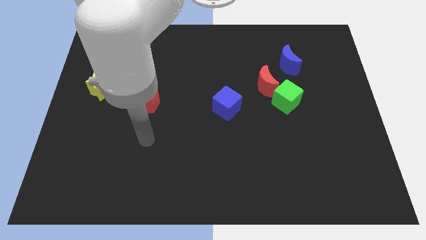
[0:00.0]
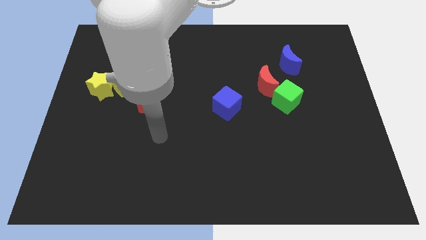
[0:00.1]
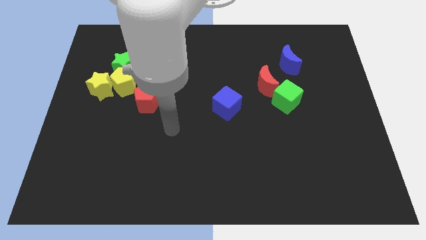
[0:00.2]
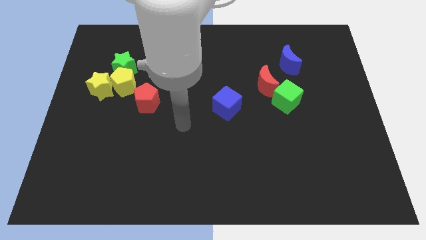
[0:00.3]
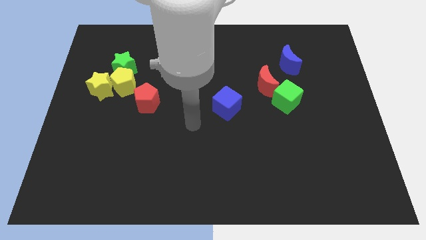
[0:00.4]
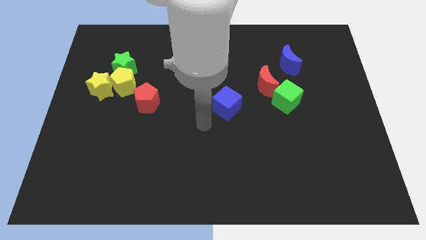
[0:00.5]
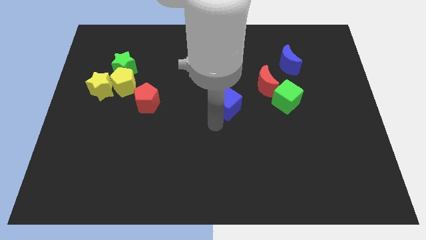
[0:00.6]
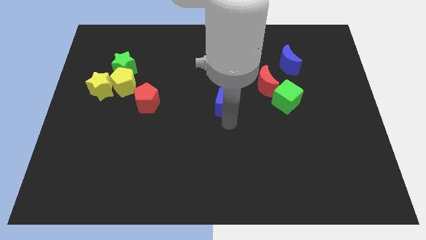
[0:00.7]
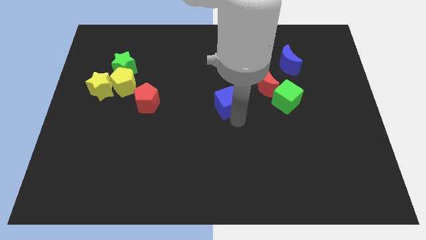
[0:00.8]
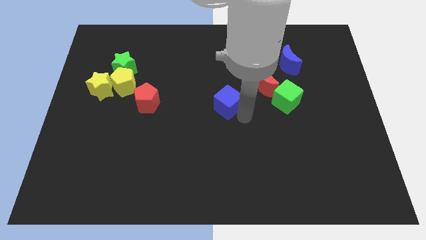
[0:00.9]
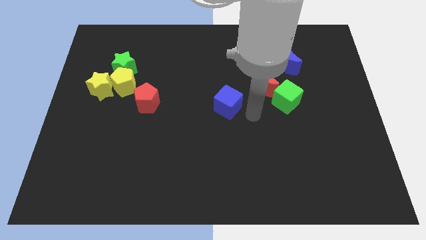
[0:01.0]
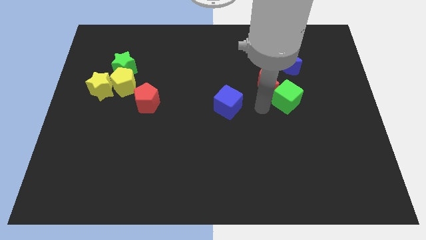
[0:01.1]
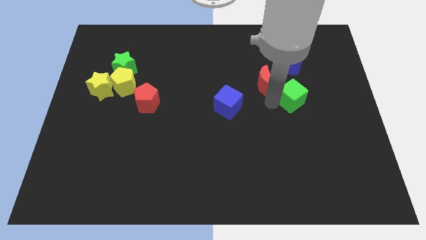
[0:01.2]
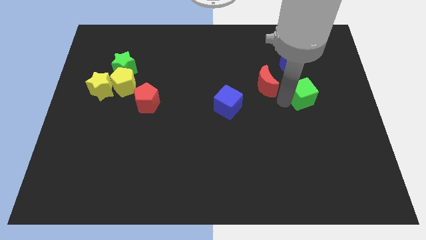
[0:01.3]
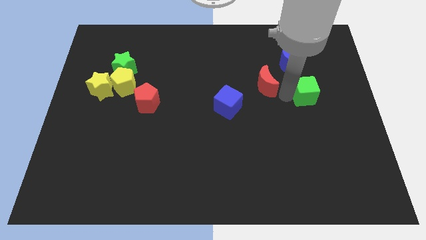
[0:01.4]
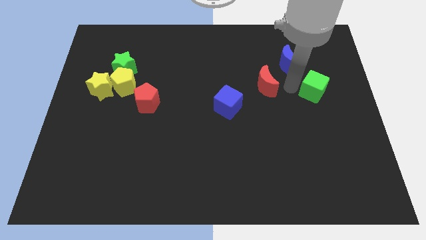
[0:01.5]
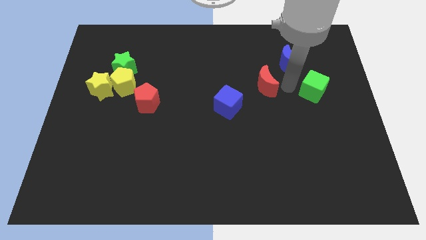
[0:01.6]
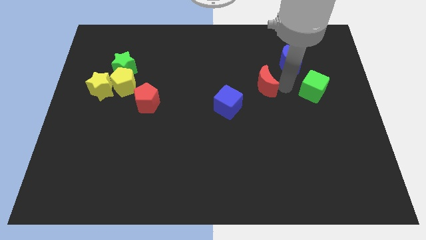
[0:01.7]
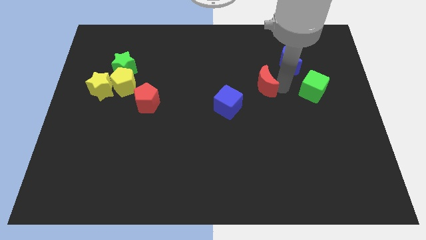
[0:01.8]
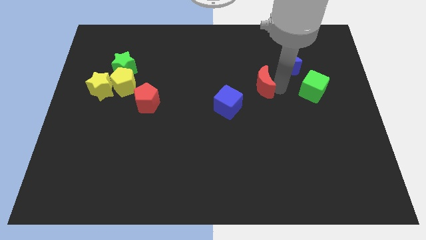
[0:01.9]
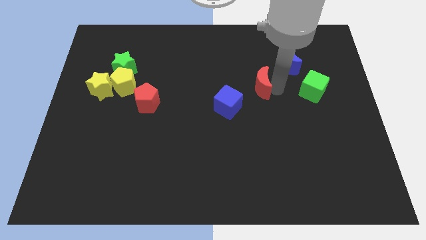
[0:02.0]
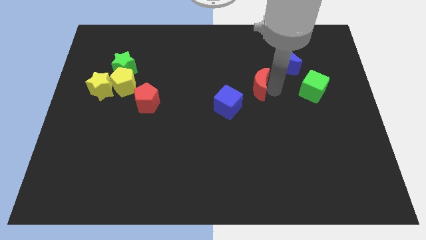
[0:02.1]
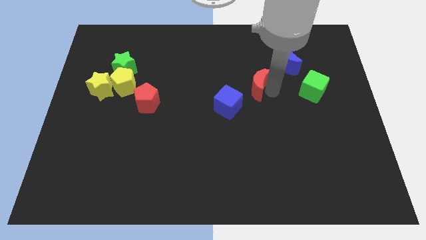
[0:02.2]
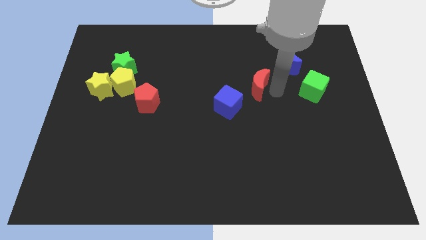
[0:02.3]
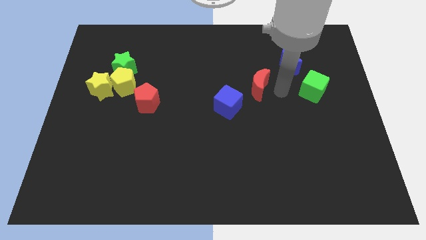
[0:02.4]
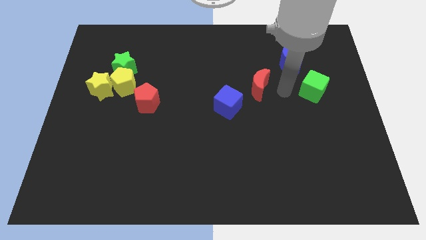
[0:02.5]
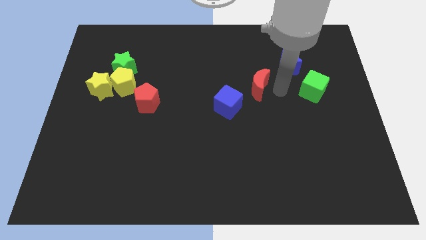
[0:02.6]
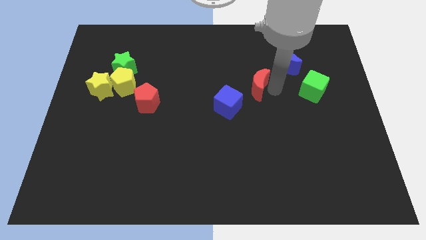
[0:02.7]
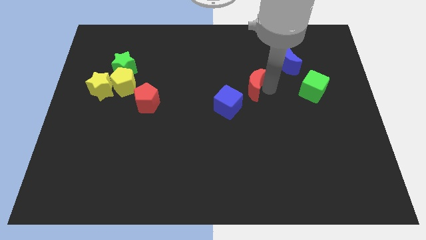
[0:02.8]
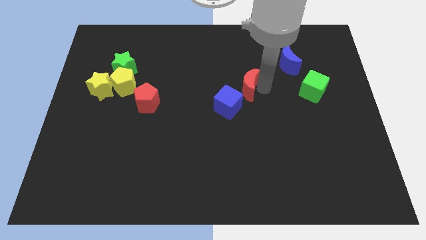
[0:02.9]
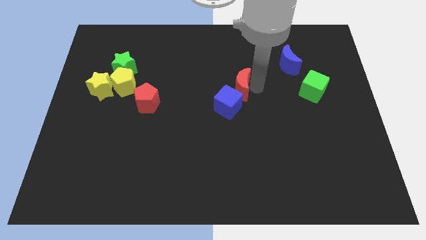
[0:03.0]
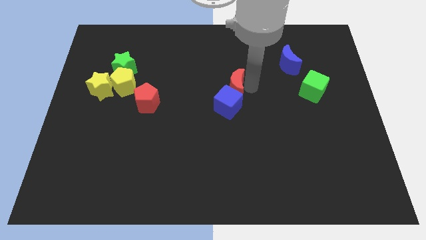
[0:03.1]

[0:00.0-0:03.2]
push the red moon to the left a bit

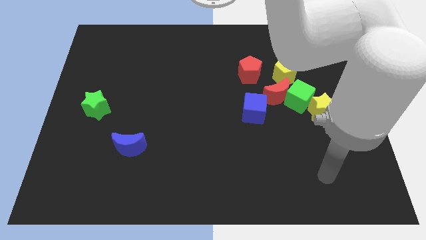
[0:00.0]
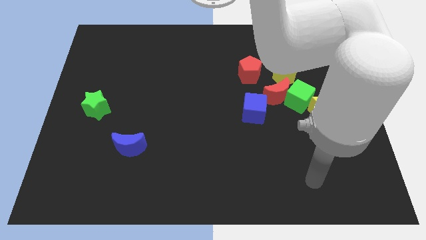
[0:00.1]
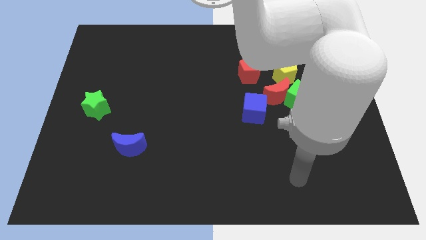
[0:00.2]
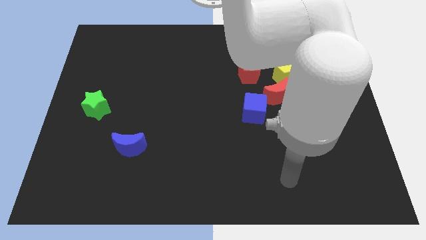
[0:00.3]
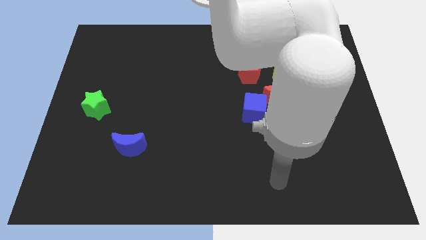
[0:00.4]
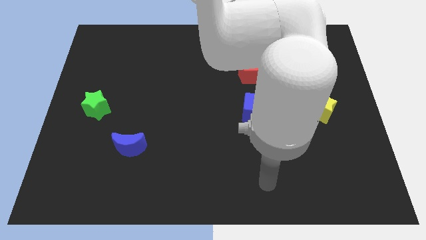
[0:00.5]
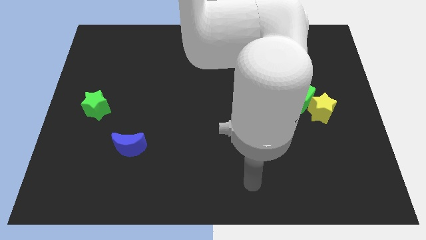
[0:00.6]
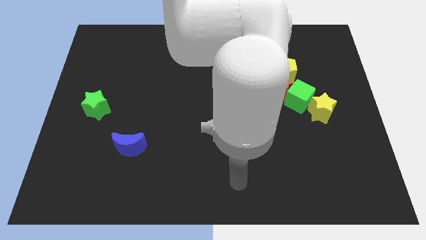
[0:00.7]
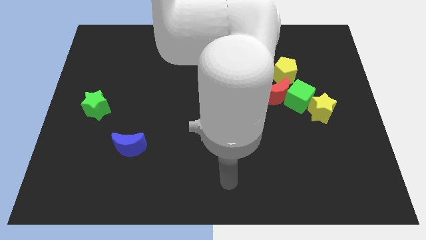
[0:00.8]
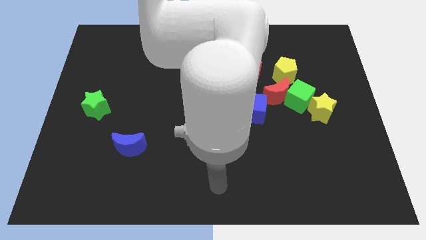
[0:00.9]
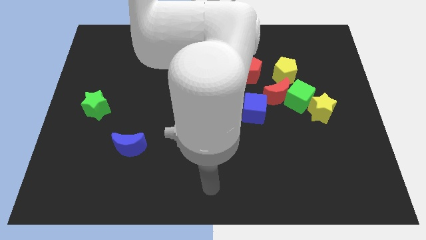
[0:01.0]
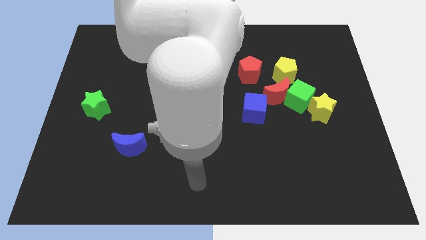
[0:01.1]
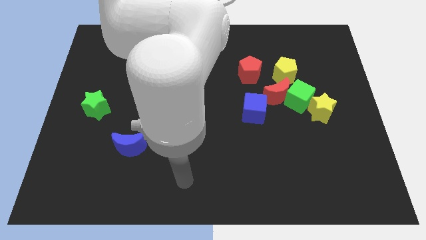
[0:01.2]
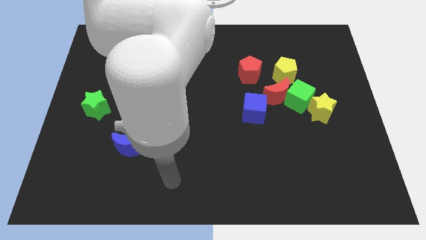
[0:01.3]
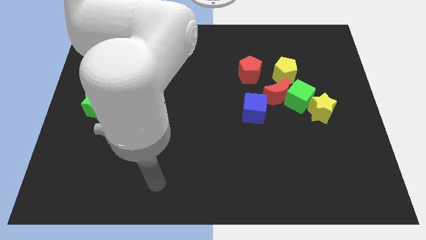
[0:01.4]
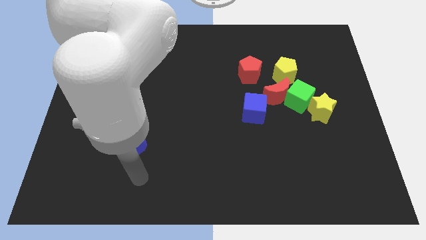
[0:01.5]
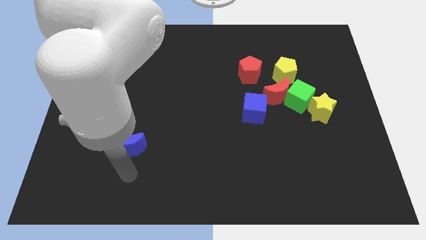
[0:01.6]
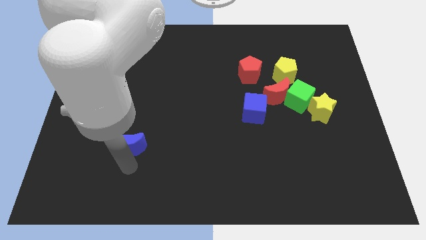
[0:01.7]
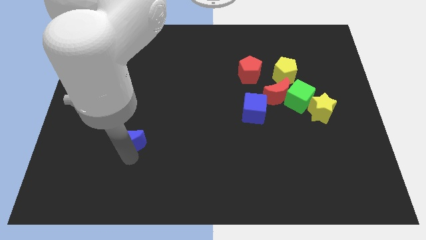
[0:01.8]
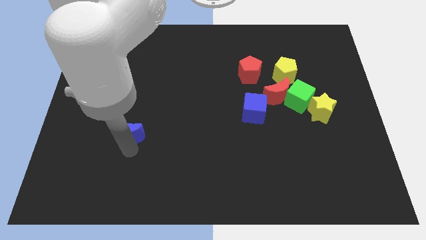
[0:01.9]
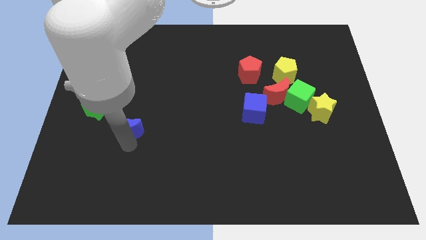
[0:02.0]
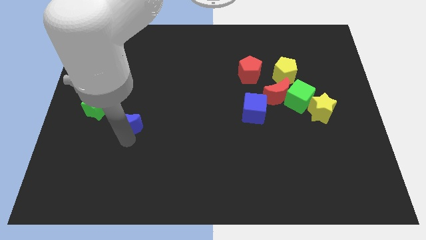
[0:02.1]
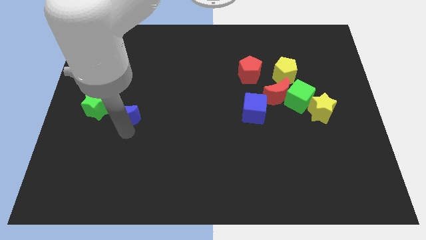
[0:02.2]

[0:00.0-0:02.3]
move the blue moon somewhat upwards

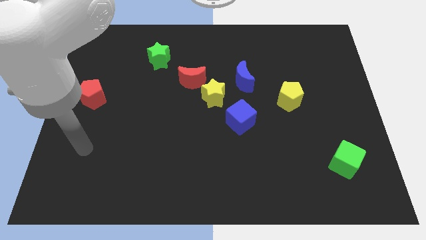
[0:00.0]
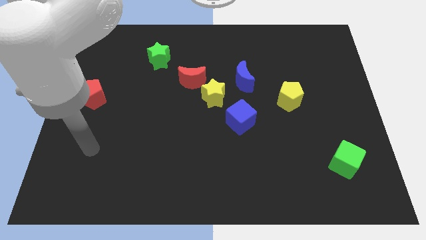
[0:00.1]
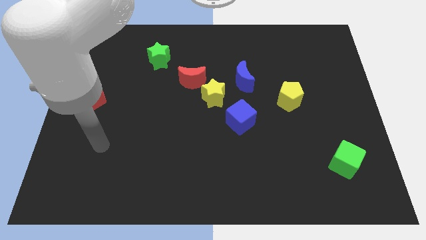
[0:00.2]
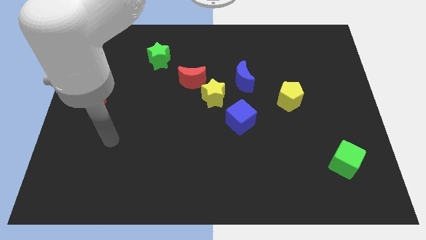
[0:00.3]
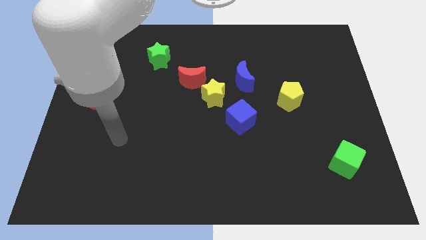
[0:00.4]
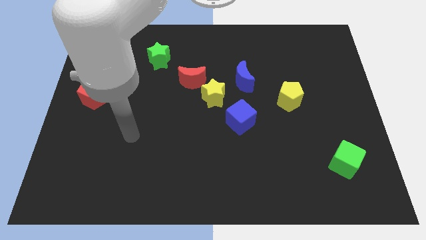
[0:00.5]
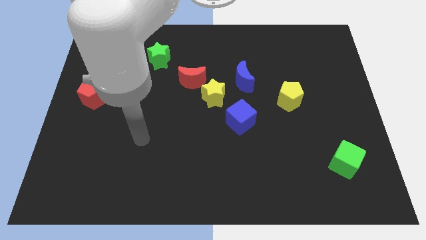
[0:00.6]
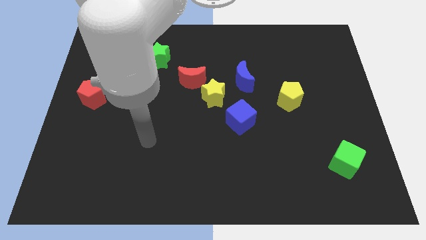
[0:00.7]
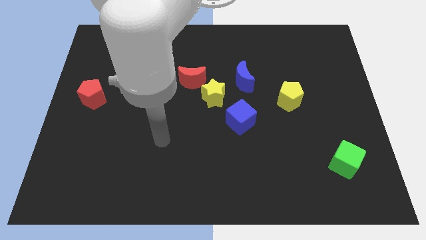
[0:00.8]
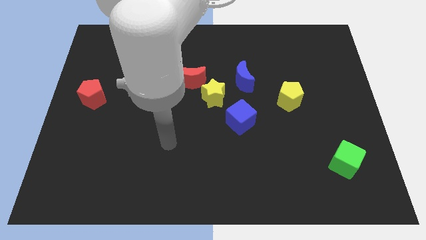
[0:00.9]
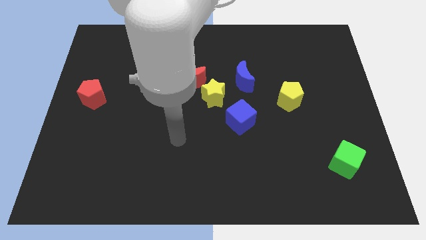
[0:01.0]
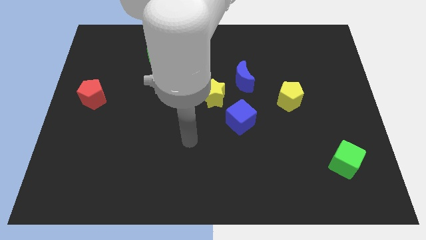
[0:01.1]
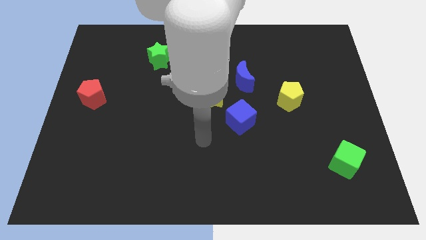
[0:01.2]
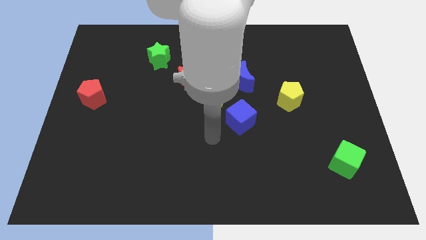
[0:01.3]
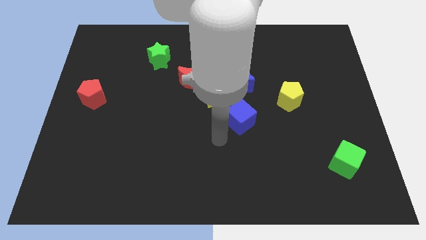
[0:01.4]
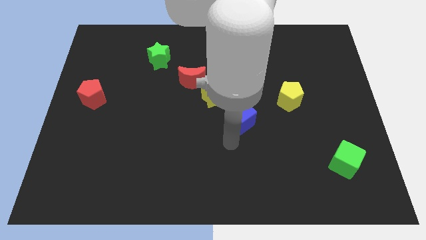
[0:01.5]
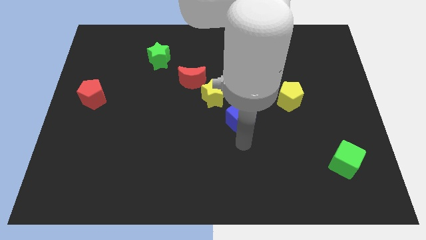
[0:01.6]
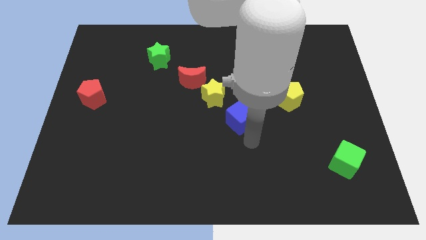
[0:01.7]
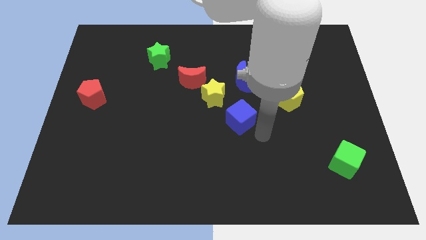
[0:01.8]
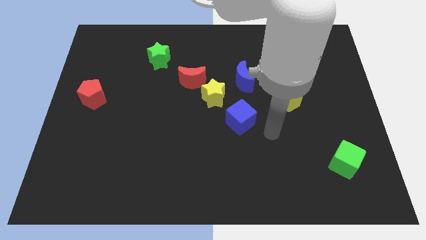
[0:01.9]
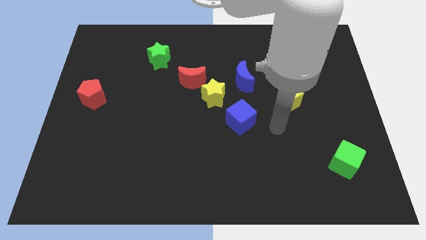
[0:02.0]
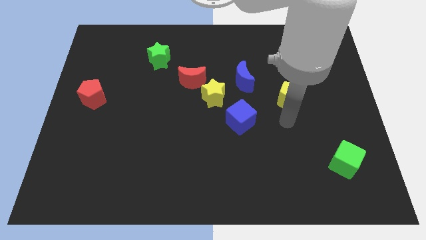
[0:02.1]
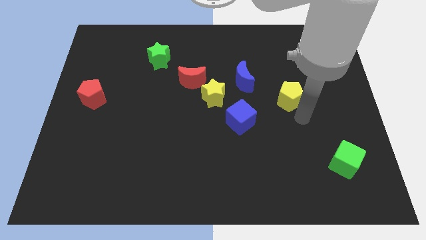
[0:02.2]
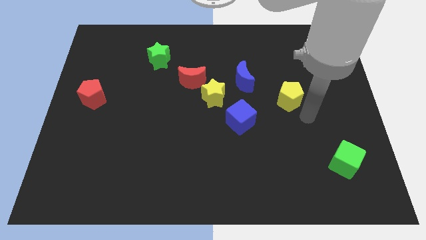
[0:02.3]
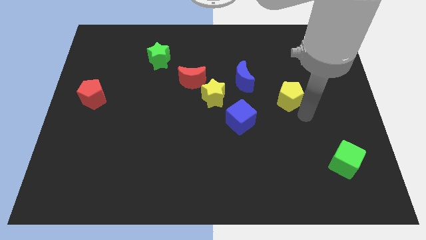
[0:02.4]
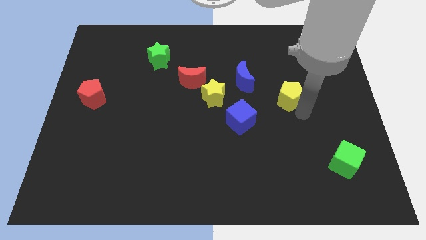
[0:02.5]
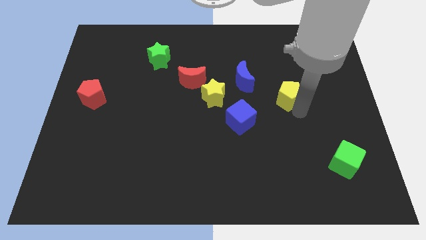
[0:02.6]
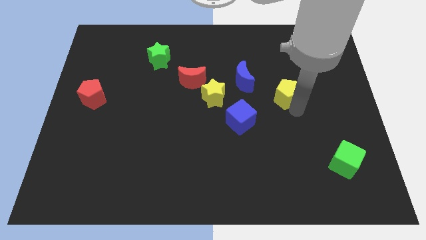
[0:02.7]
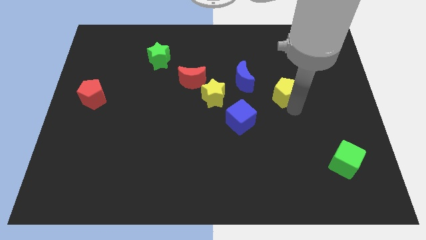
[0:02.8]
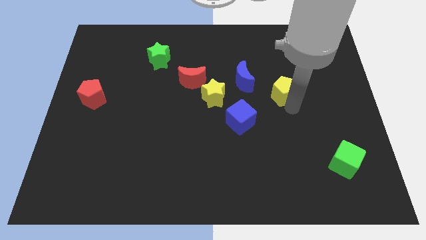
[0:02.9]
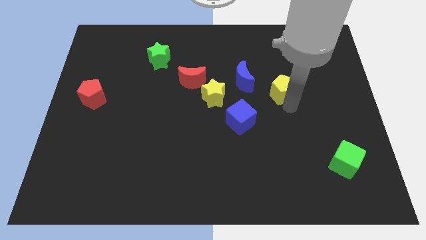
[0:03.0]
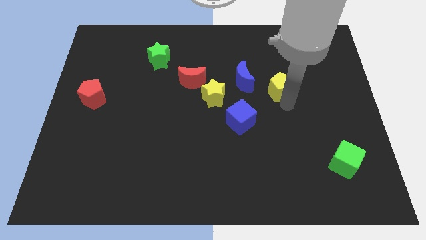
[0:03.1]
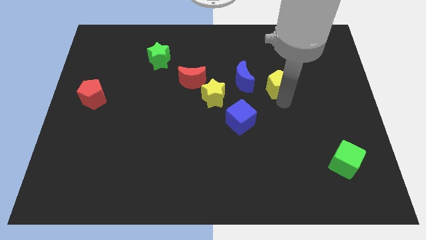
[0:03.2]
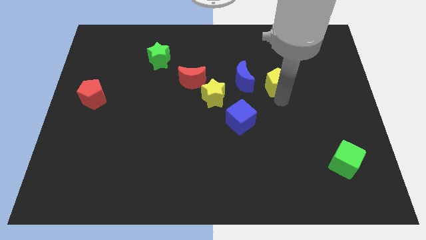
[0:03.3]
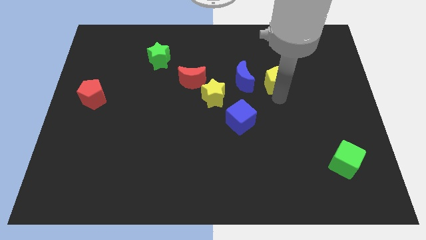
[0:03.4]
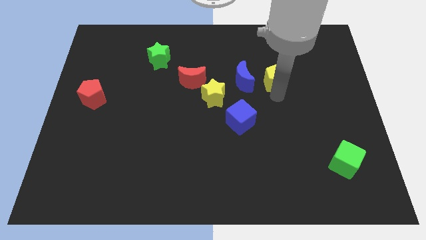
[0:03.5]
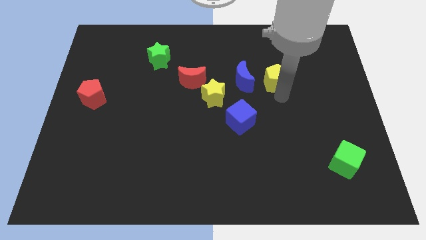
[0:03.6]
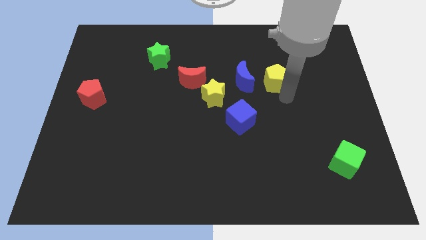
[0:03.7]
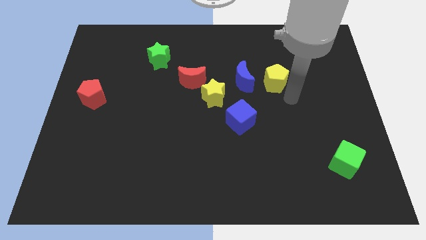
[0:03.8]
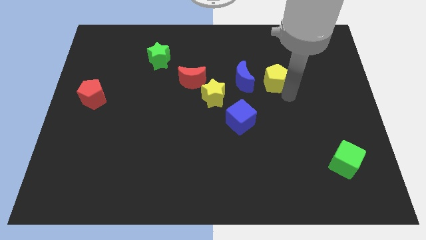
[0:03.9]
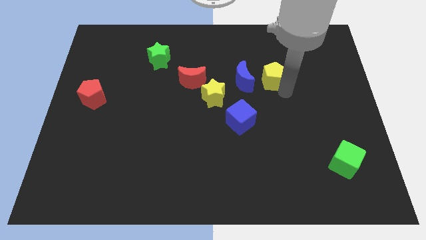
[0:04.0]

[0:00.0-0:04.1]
slightly push the yellow pentagon diagonally upwards and to the left
